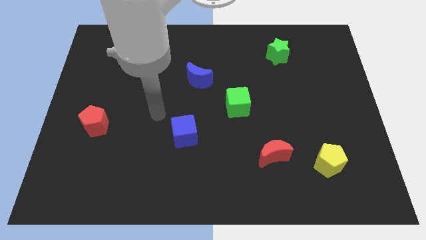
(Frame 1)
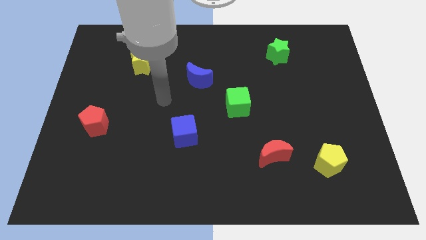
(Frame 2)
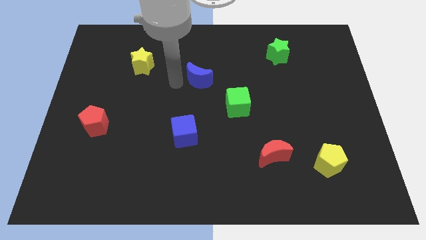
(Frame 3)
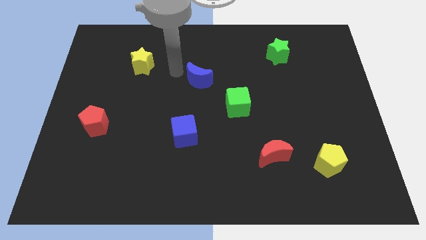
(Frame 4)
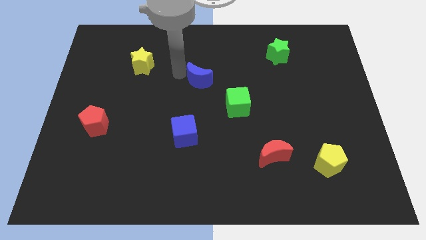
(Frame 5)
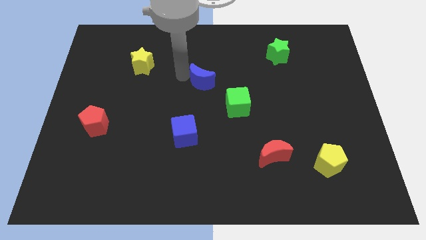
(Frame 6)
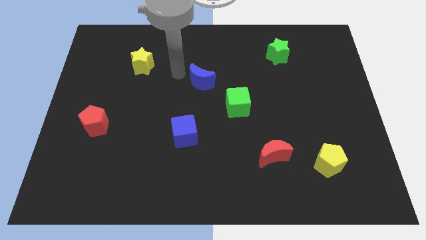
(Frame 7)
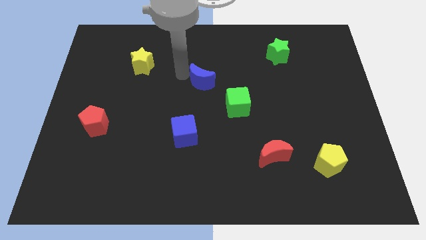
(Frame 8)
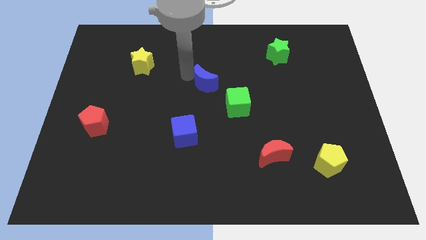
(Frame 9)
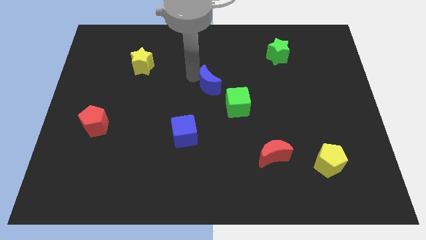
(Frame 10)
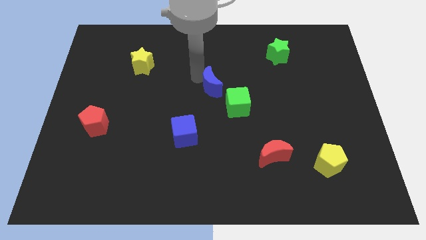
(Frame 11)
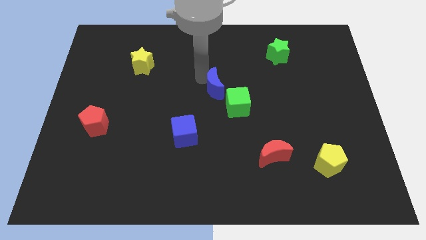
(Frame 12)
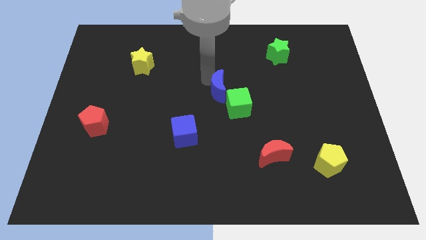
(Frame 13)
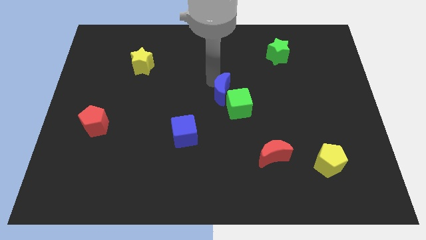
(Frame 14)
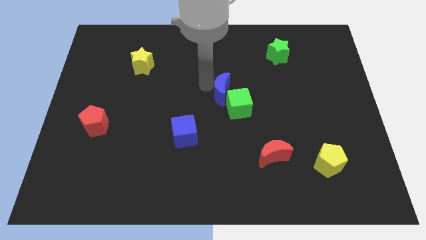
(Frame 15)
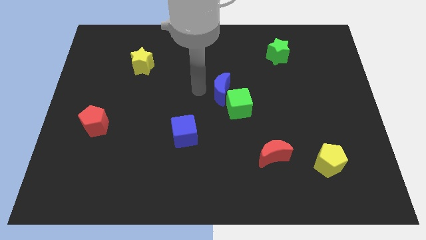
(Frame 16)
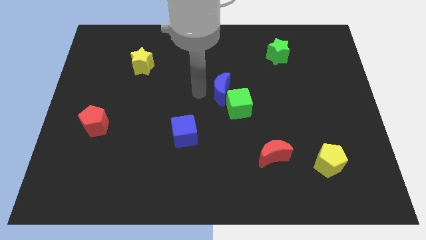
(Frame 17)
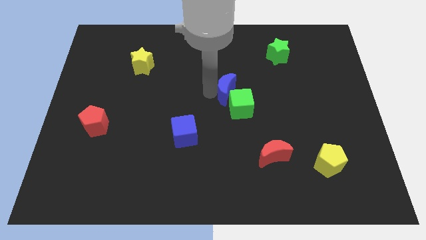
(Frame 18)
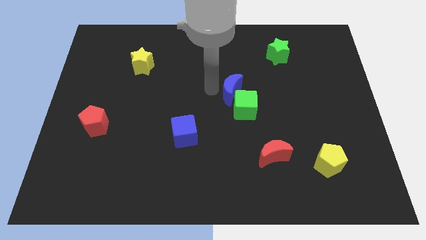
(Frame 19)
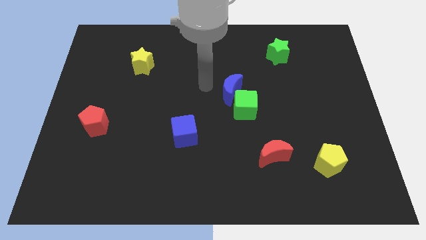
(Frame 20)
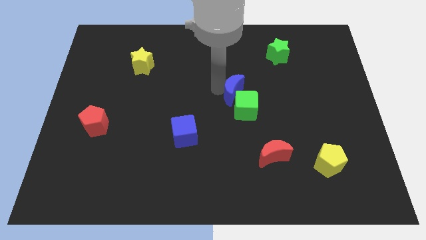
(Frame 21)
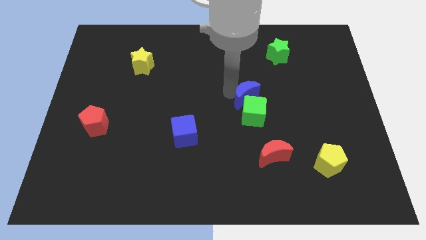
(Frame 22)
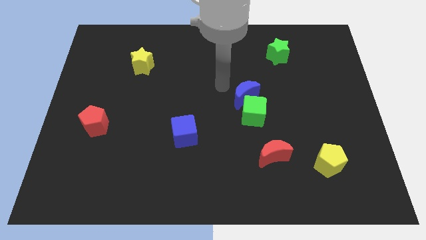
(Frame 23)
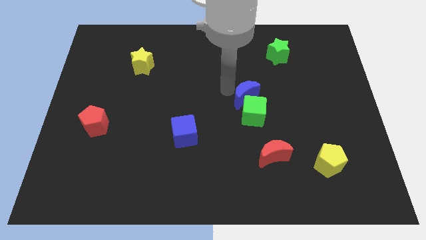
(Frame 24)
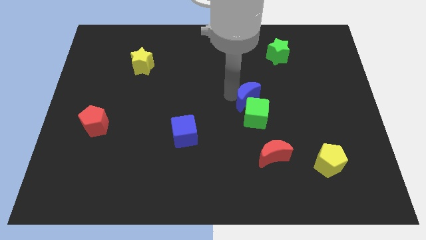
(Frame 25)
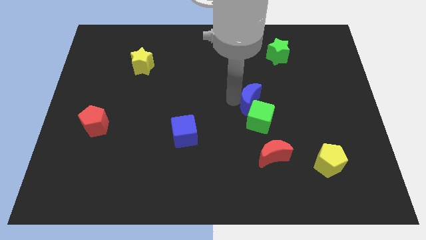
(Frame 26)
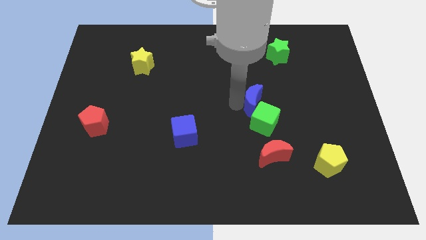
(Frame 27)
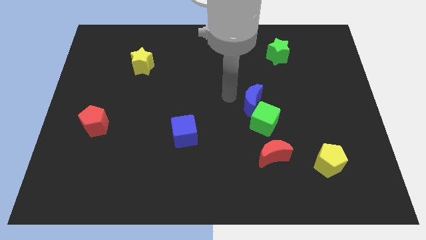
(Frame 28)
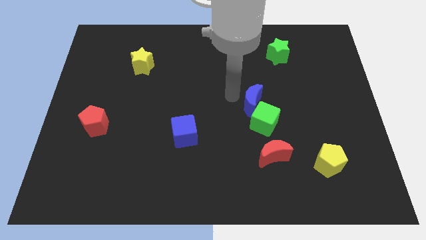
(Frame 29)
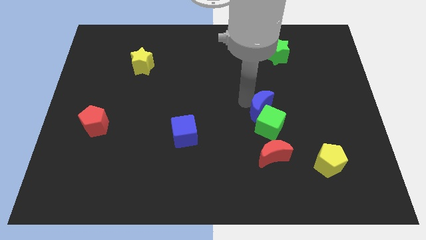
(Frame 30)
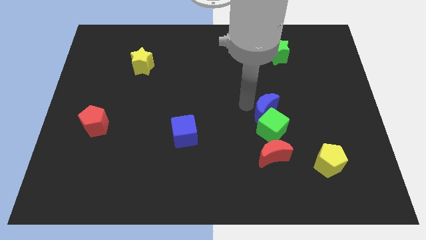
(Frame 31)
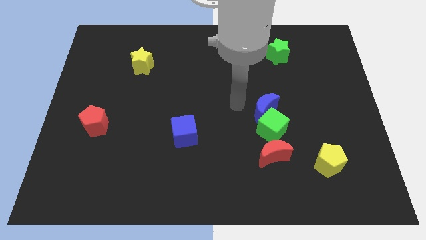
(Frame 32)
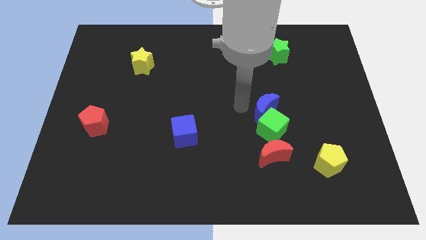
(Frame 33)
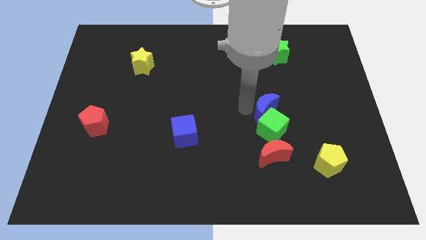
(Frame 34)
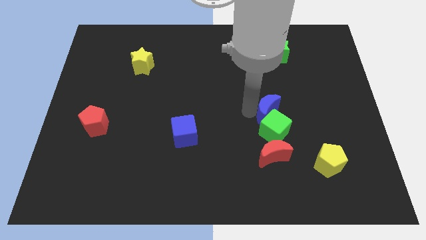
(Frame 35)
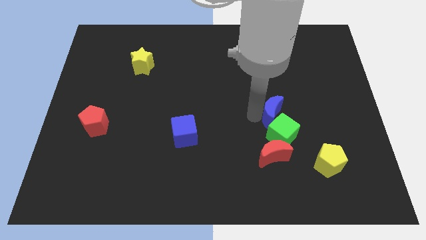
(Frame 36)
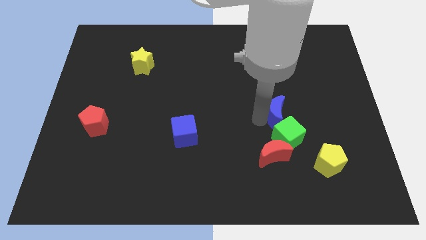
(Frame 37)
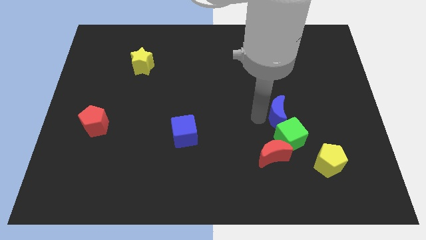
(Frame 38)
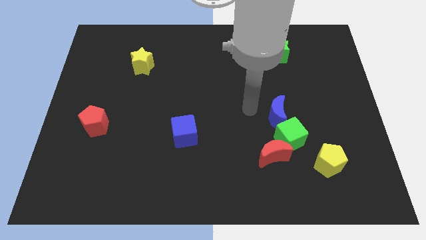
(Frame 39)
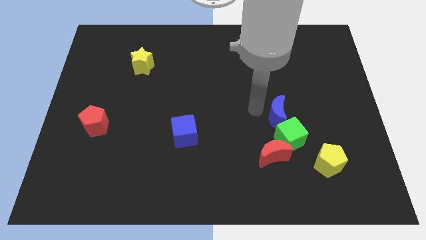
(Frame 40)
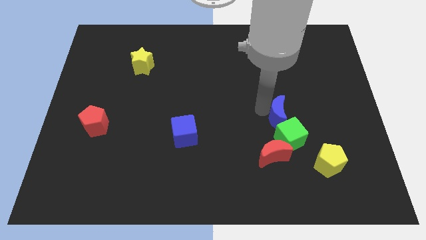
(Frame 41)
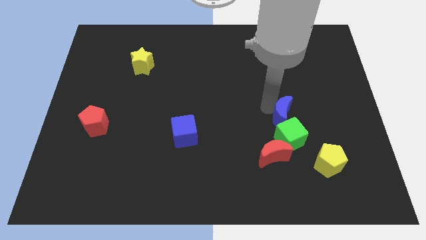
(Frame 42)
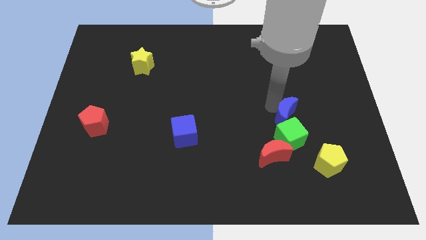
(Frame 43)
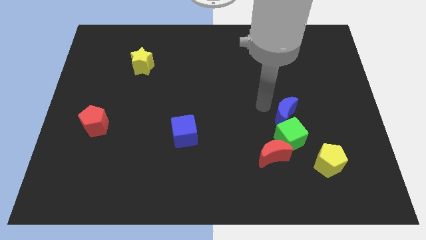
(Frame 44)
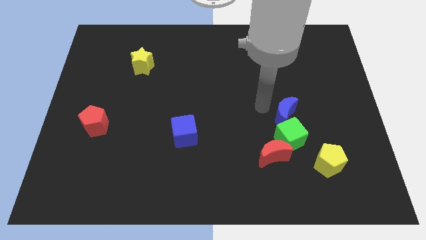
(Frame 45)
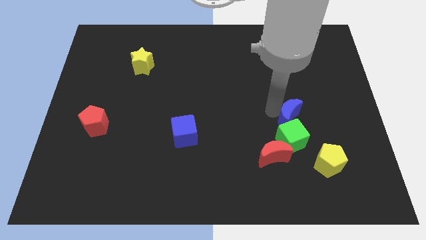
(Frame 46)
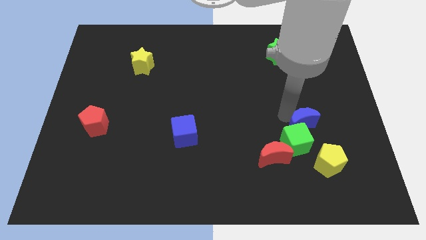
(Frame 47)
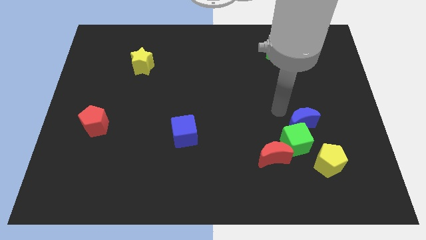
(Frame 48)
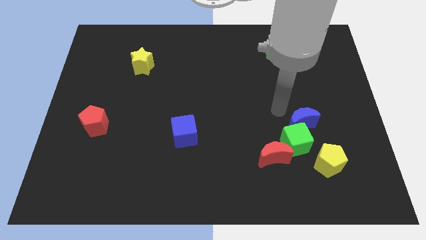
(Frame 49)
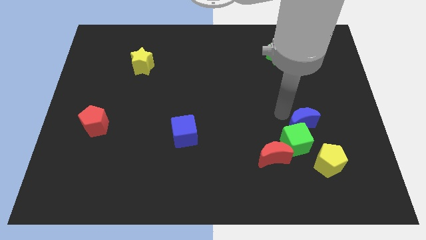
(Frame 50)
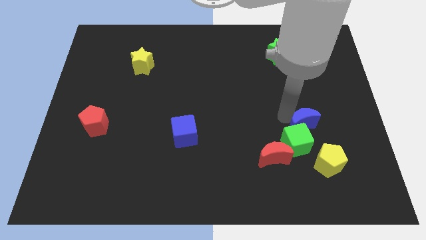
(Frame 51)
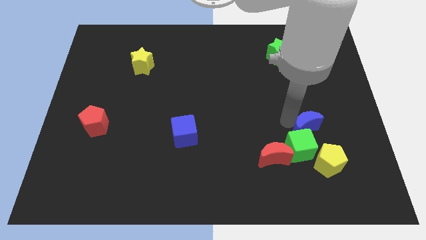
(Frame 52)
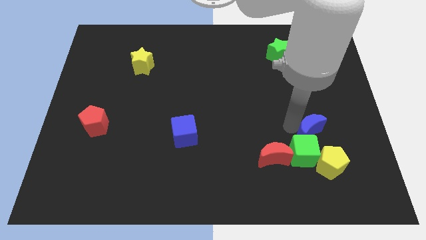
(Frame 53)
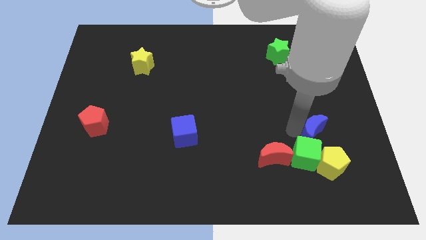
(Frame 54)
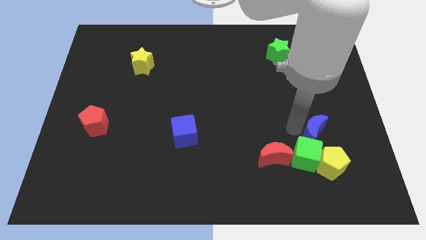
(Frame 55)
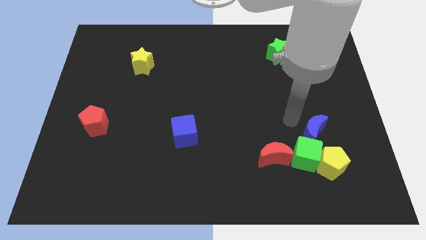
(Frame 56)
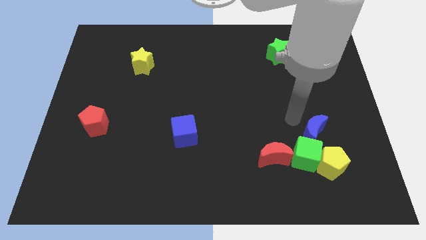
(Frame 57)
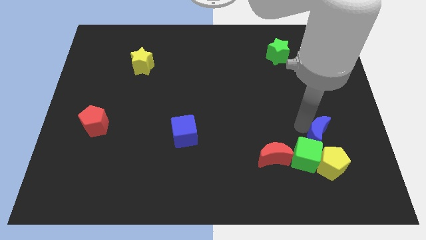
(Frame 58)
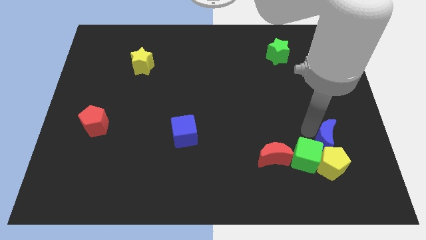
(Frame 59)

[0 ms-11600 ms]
move the blue moon right of the red moon

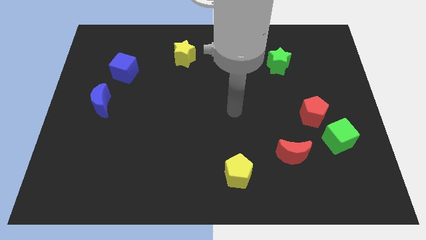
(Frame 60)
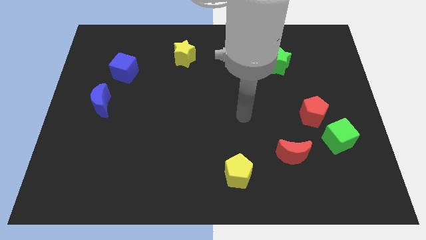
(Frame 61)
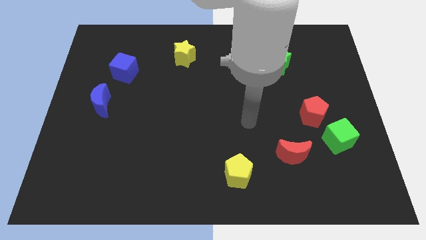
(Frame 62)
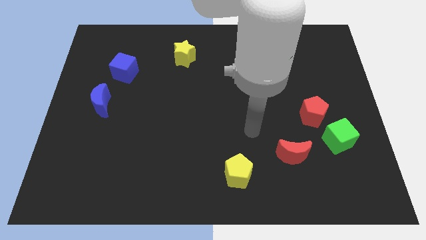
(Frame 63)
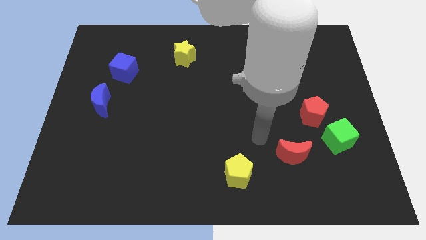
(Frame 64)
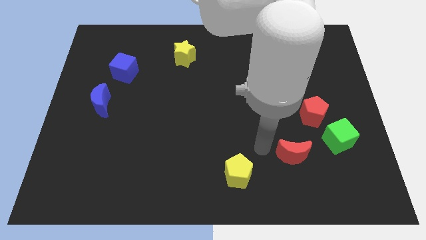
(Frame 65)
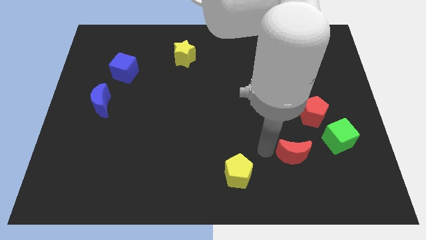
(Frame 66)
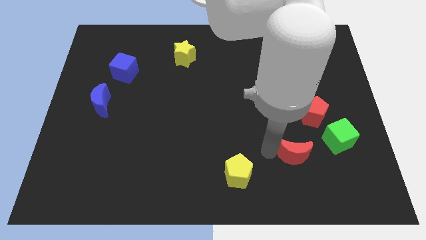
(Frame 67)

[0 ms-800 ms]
push the red moon diagonally down and to the left of the green cube

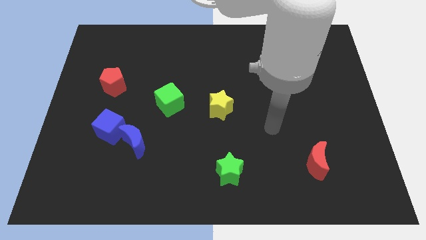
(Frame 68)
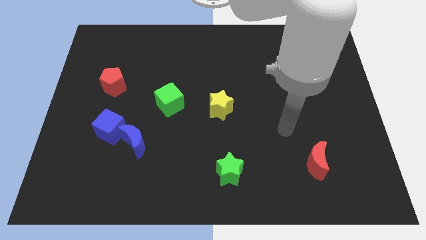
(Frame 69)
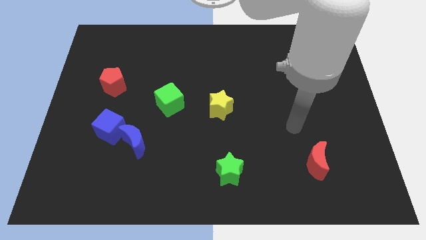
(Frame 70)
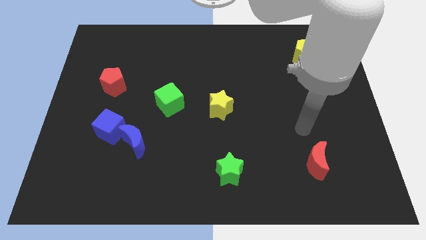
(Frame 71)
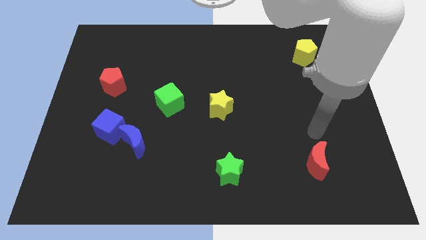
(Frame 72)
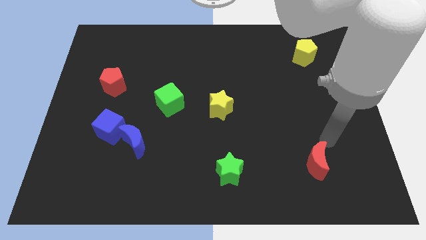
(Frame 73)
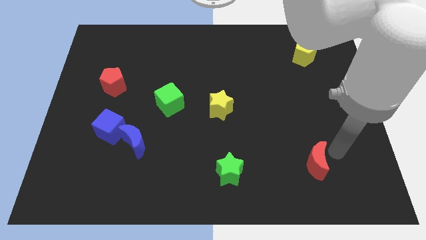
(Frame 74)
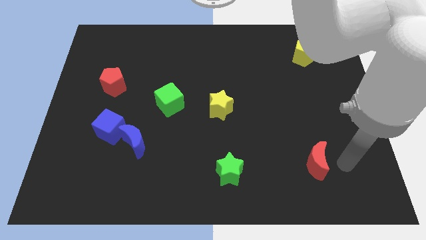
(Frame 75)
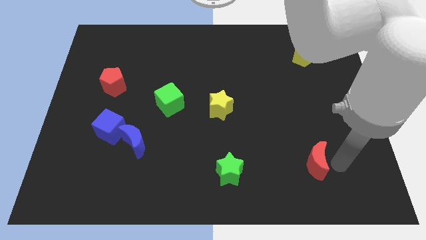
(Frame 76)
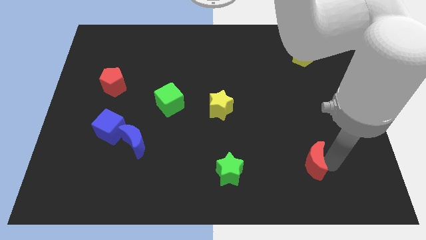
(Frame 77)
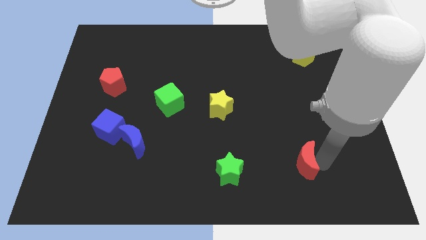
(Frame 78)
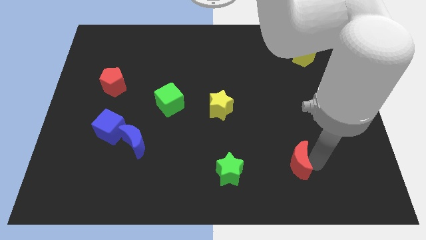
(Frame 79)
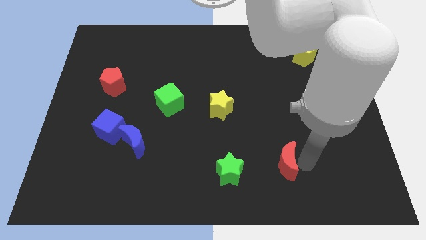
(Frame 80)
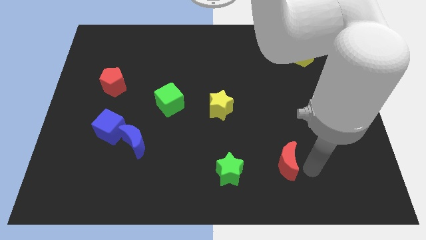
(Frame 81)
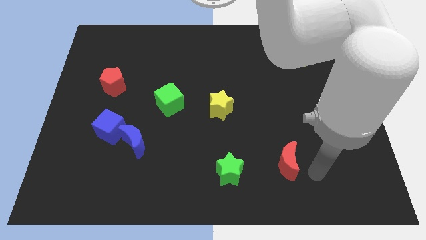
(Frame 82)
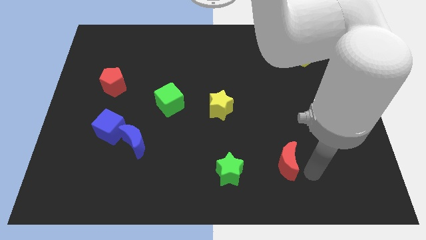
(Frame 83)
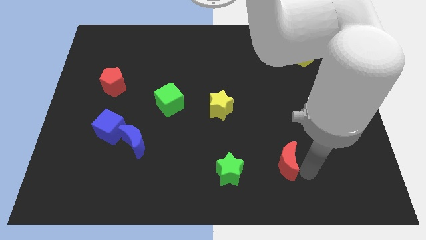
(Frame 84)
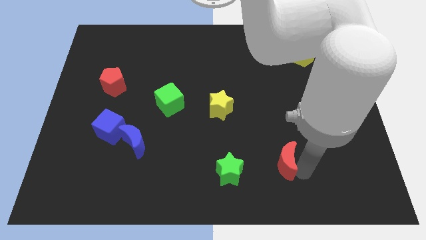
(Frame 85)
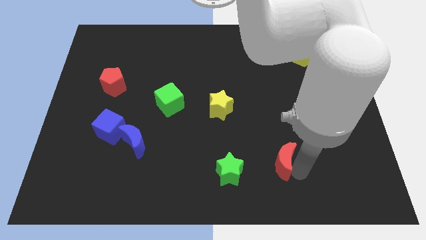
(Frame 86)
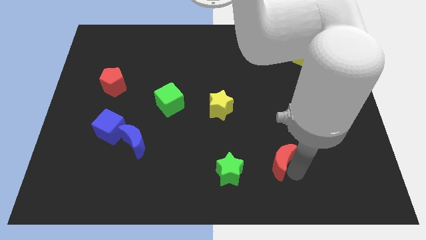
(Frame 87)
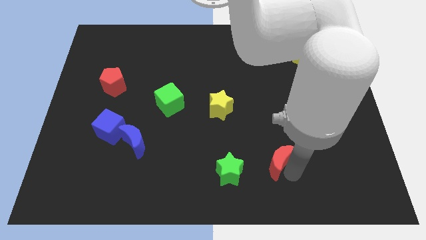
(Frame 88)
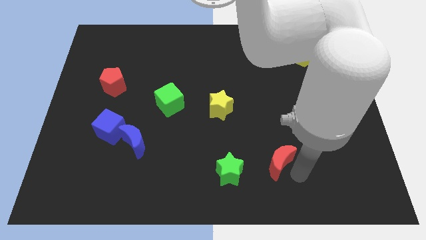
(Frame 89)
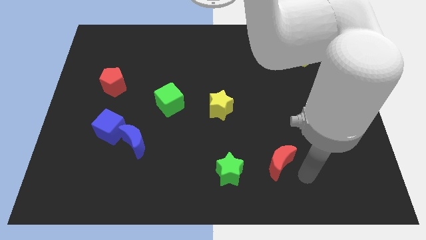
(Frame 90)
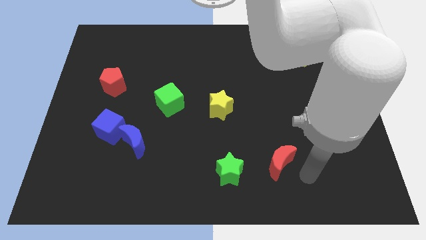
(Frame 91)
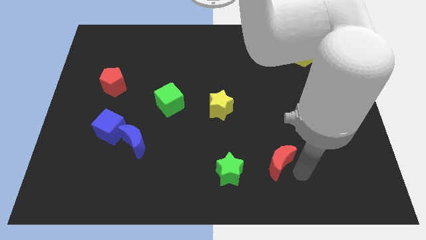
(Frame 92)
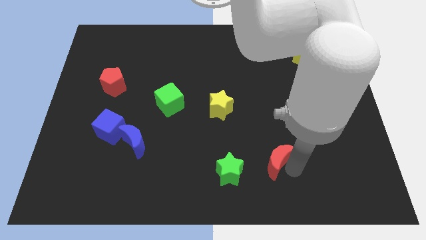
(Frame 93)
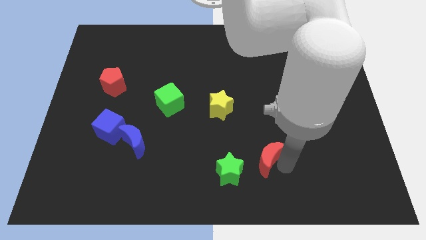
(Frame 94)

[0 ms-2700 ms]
push the red moon to the top right side of the green star
